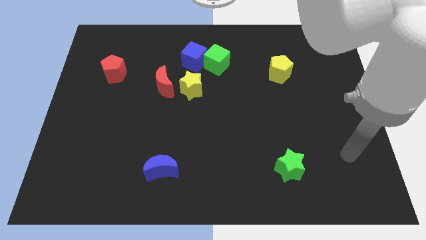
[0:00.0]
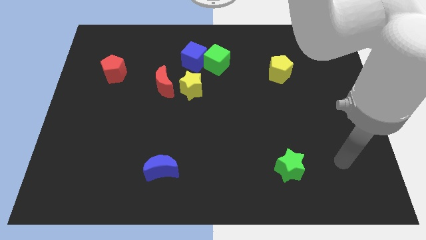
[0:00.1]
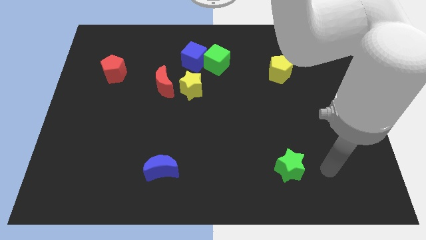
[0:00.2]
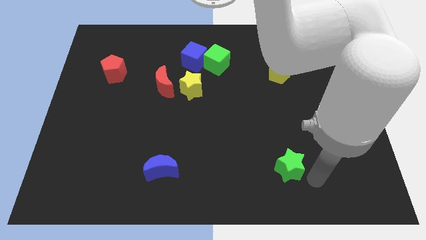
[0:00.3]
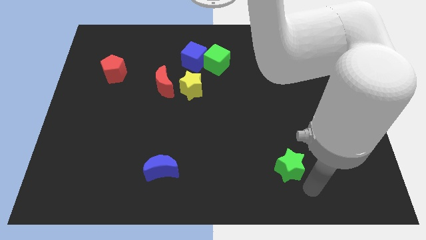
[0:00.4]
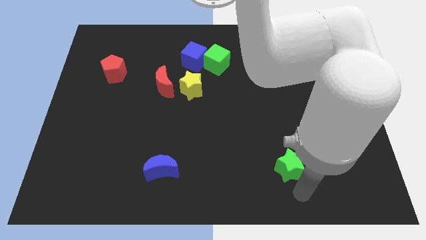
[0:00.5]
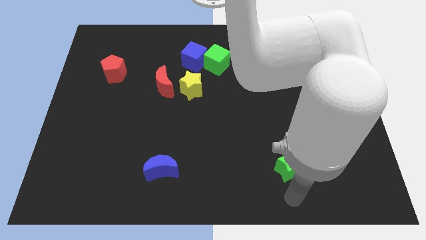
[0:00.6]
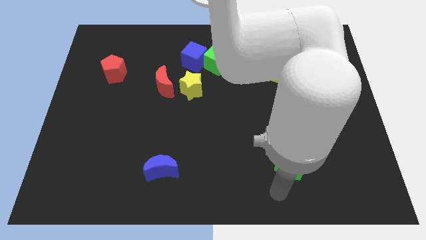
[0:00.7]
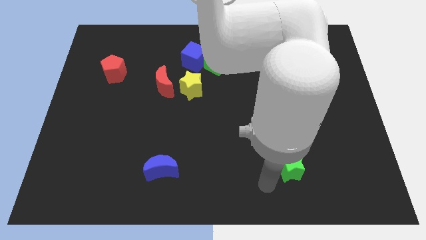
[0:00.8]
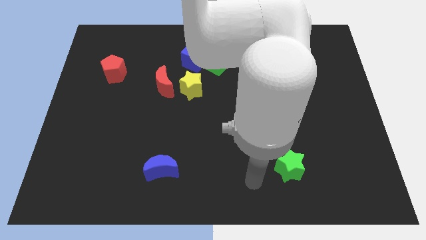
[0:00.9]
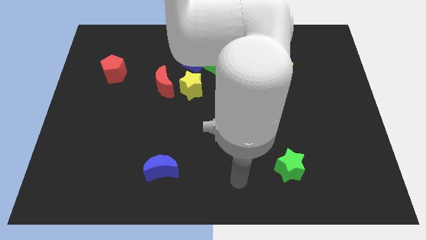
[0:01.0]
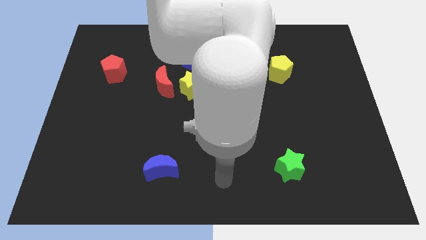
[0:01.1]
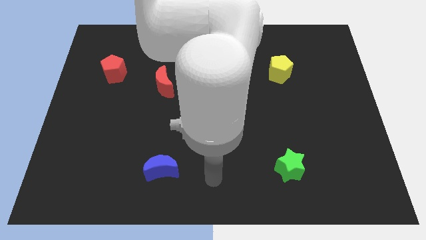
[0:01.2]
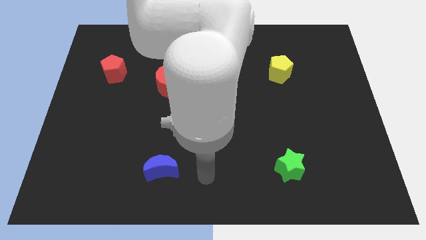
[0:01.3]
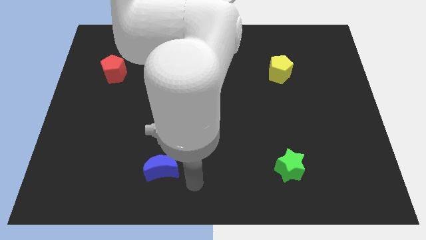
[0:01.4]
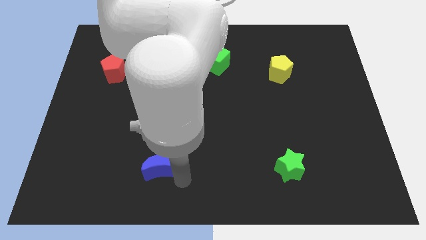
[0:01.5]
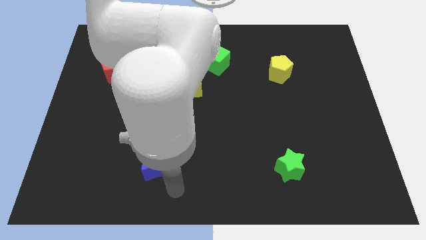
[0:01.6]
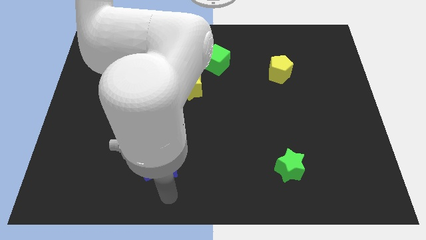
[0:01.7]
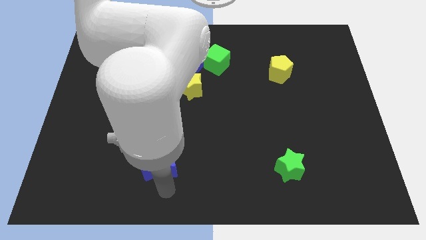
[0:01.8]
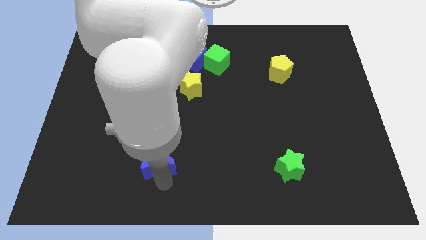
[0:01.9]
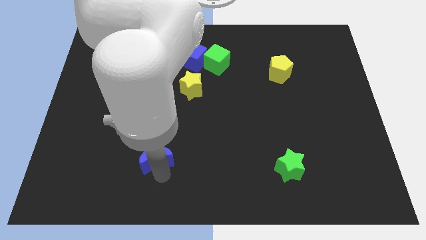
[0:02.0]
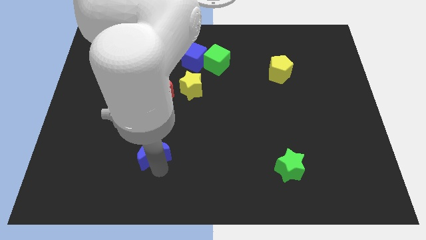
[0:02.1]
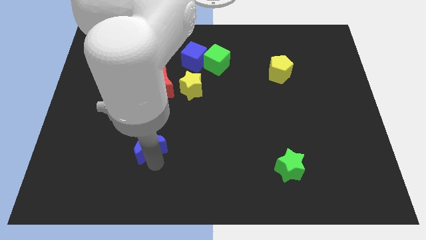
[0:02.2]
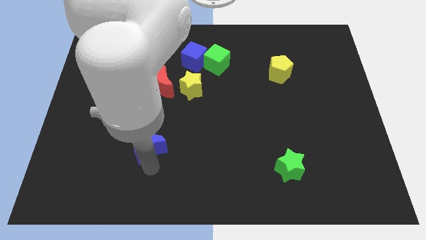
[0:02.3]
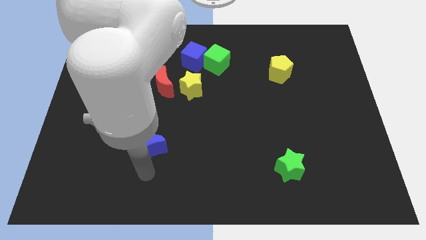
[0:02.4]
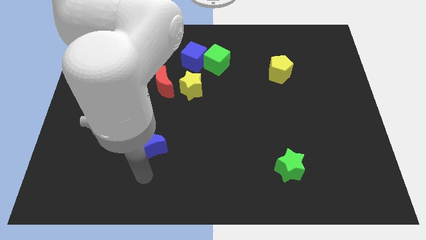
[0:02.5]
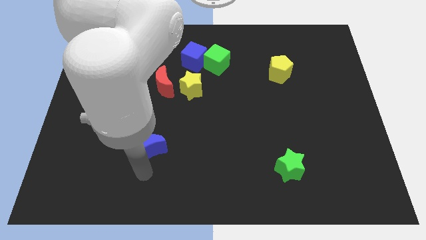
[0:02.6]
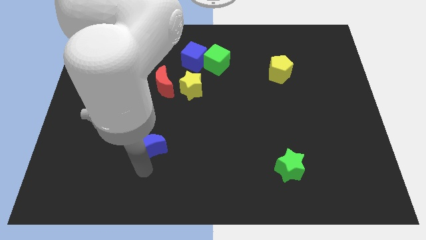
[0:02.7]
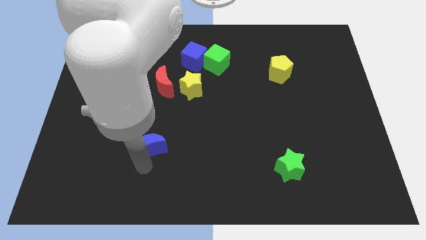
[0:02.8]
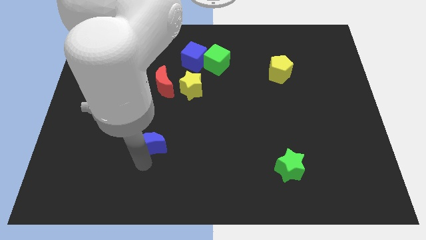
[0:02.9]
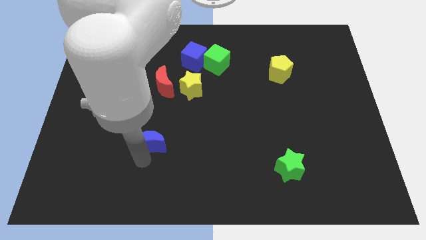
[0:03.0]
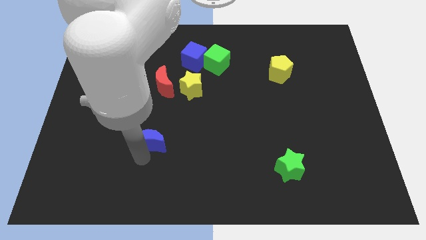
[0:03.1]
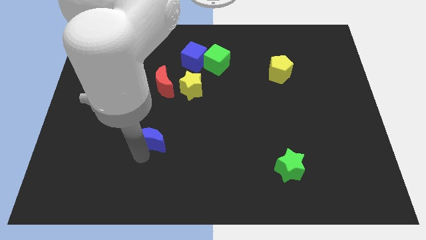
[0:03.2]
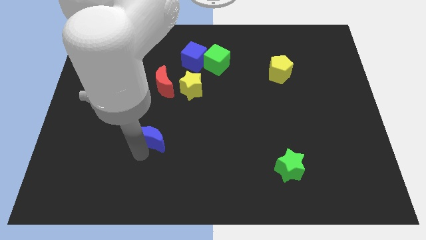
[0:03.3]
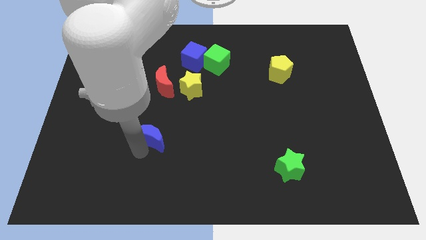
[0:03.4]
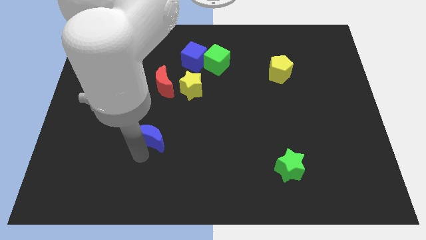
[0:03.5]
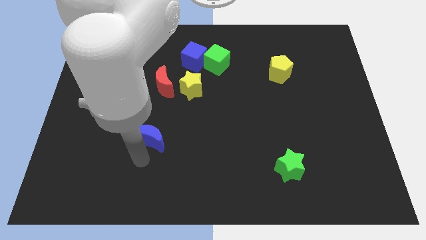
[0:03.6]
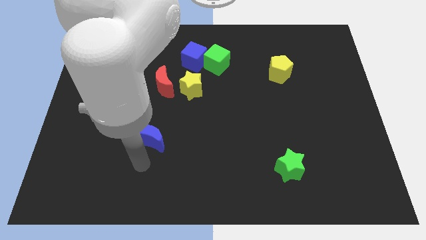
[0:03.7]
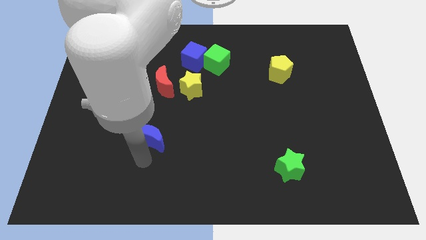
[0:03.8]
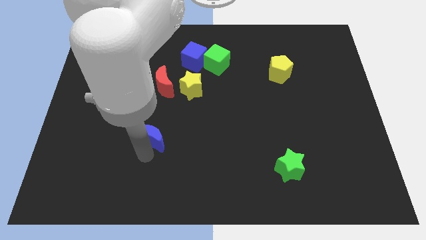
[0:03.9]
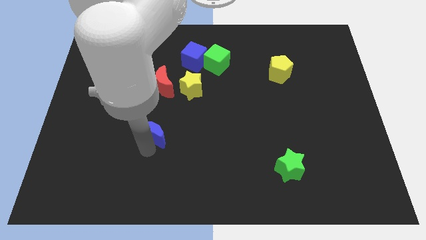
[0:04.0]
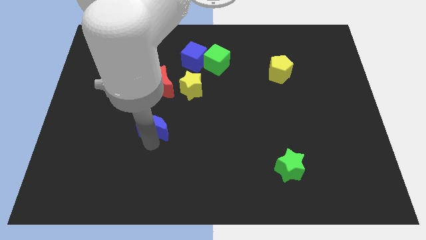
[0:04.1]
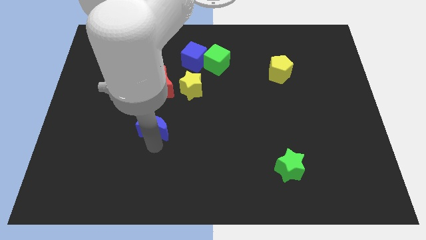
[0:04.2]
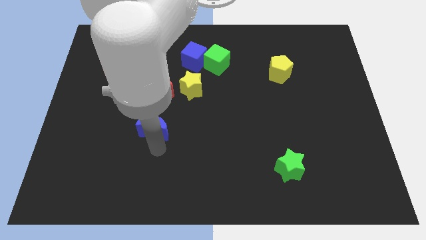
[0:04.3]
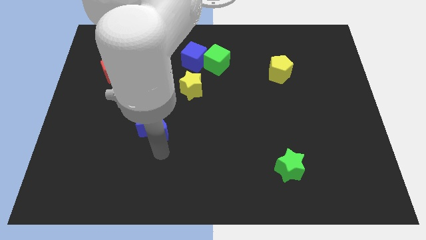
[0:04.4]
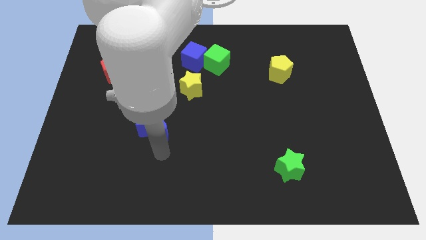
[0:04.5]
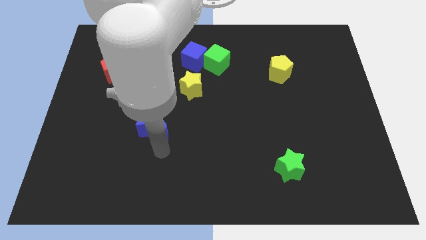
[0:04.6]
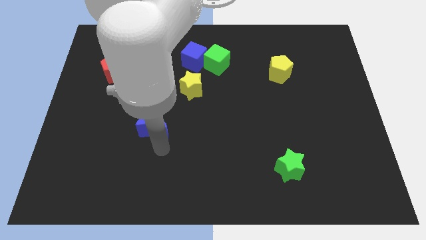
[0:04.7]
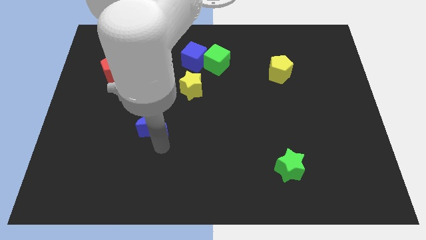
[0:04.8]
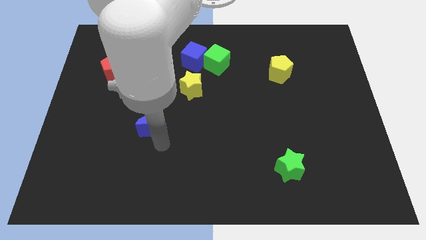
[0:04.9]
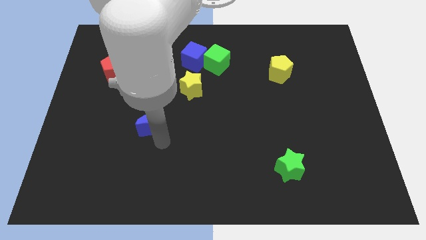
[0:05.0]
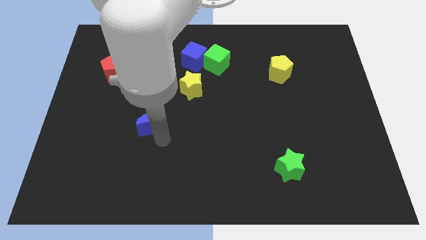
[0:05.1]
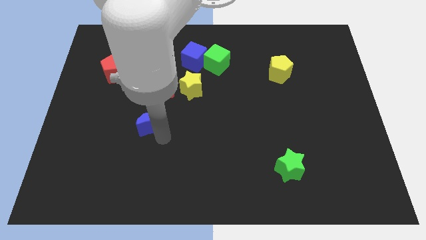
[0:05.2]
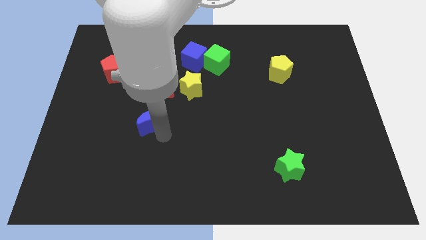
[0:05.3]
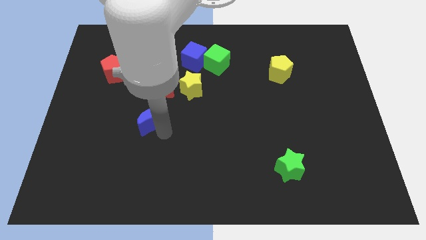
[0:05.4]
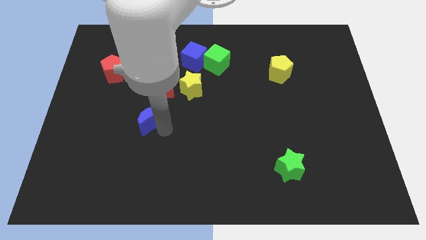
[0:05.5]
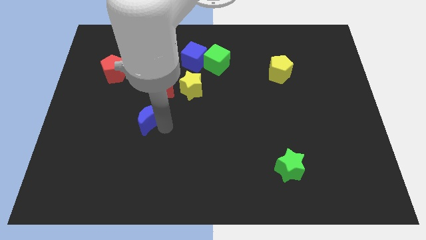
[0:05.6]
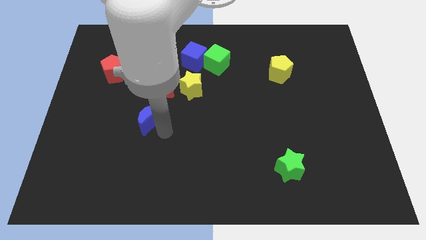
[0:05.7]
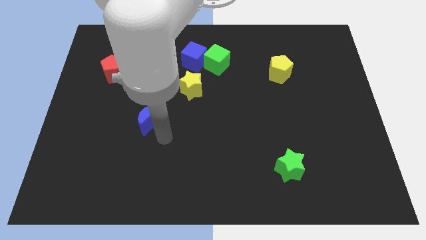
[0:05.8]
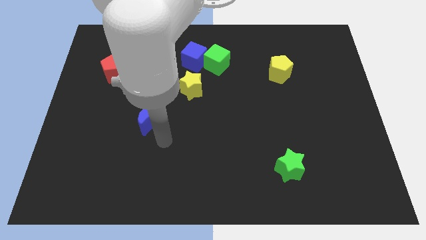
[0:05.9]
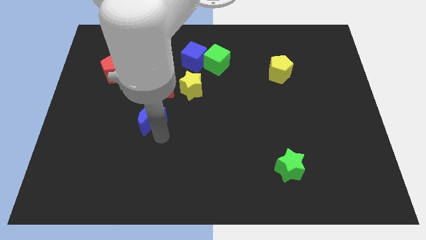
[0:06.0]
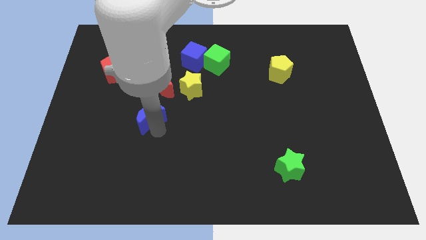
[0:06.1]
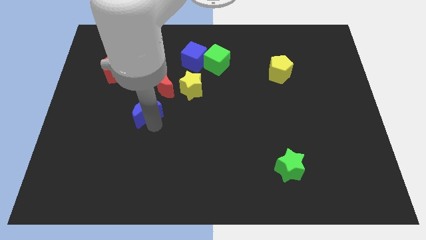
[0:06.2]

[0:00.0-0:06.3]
put the blue moon to the bottom left side of the red moon

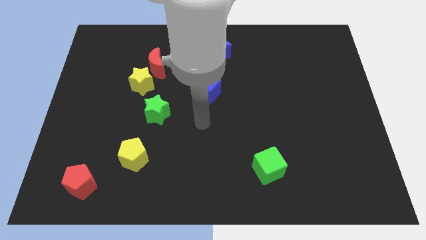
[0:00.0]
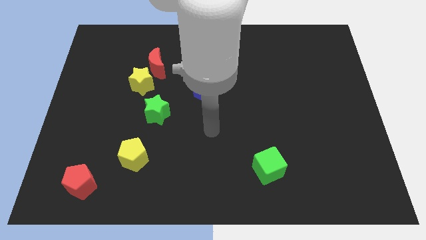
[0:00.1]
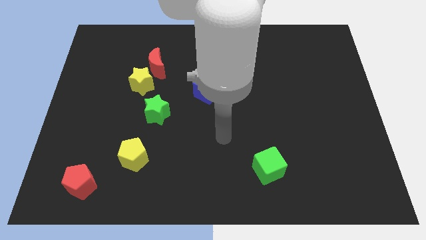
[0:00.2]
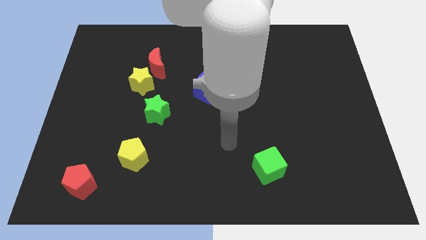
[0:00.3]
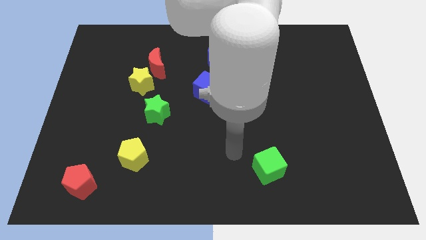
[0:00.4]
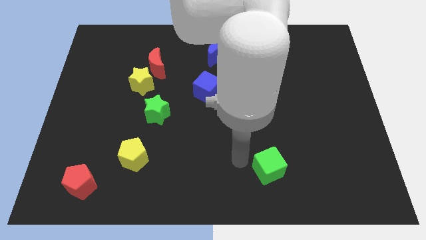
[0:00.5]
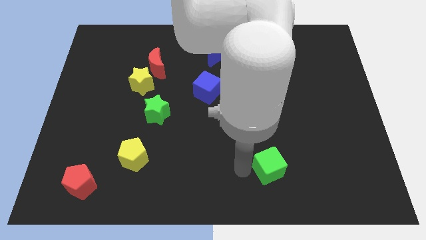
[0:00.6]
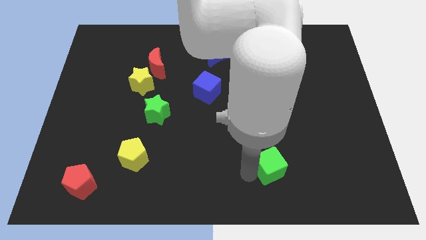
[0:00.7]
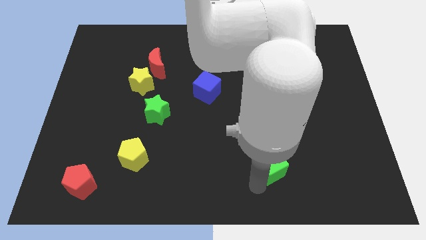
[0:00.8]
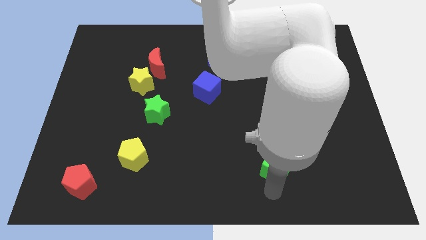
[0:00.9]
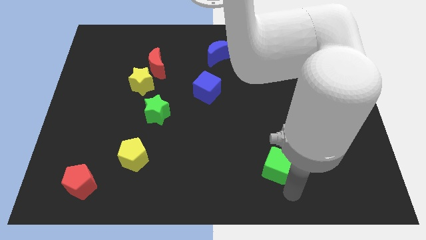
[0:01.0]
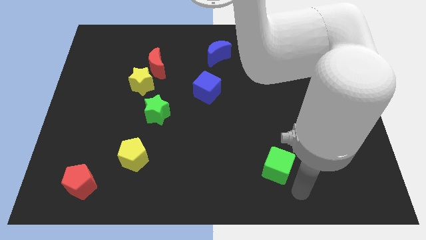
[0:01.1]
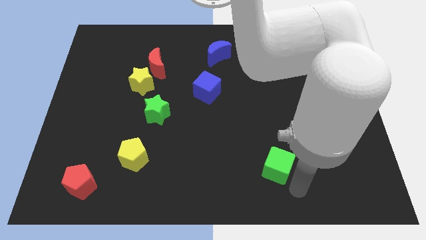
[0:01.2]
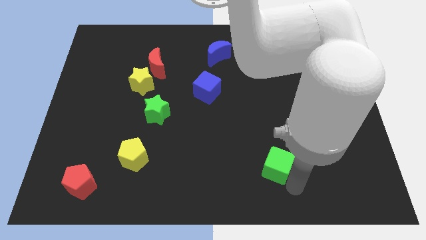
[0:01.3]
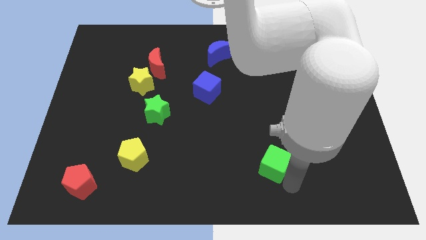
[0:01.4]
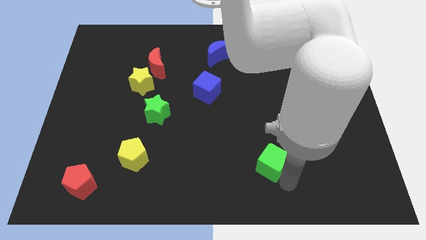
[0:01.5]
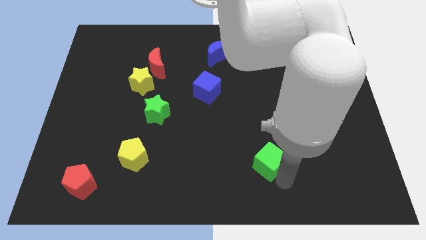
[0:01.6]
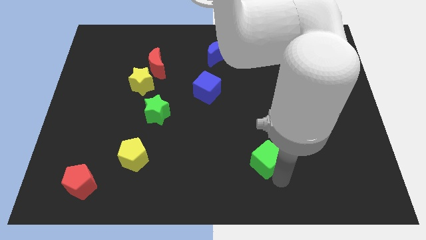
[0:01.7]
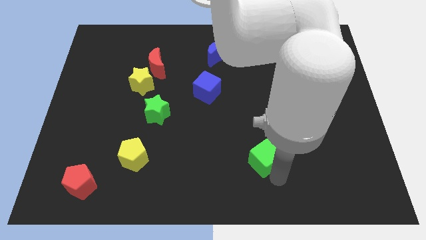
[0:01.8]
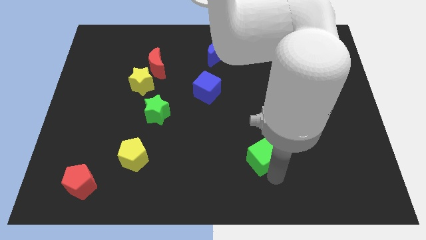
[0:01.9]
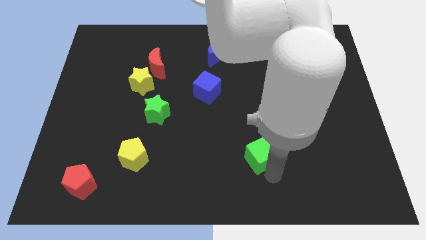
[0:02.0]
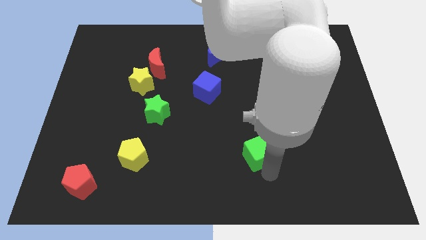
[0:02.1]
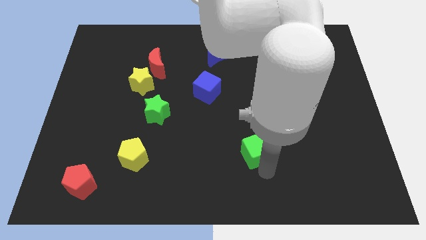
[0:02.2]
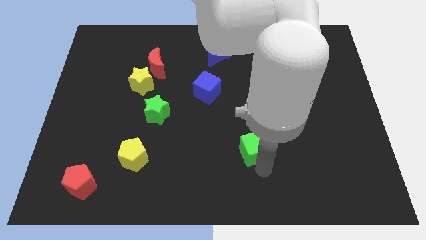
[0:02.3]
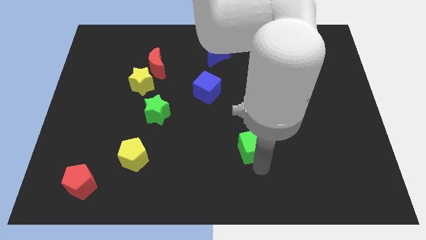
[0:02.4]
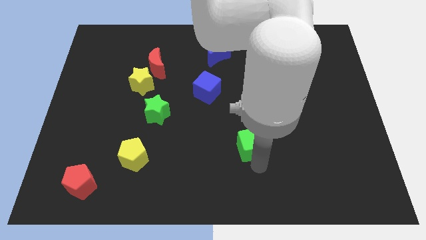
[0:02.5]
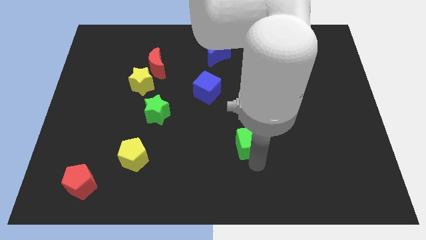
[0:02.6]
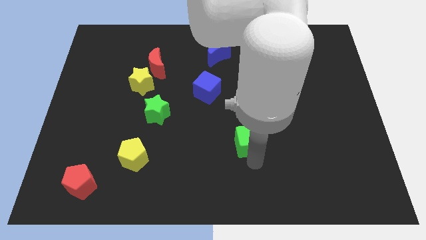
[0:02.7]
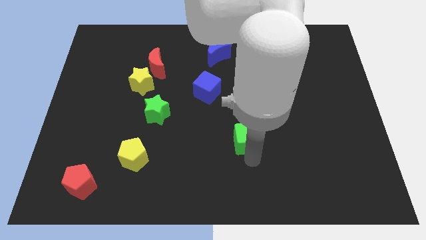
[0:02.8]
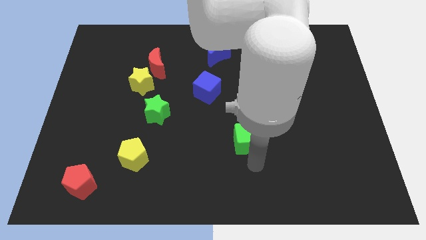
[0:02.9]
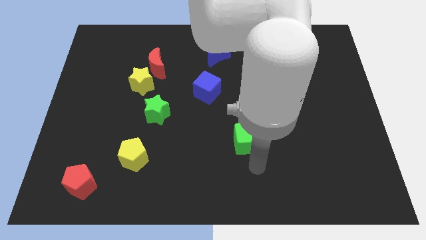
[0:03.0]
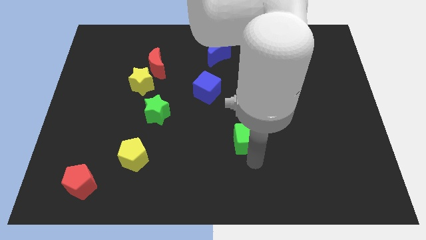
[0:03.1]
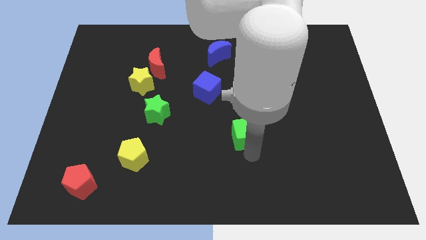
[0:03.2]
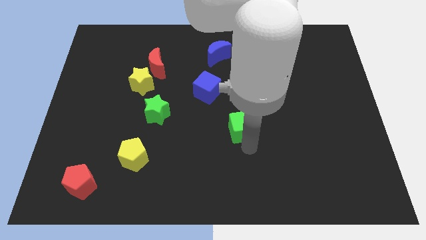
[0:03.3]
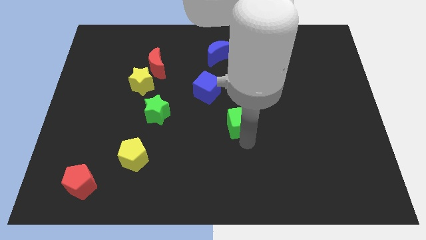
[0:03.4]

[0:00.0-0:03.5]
push the green cube to the bottom right side of the blue cube
